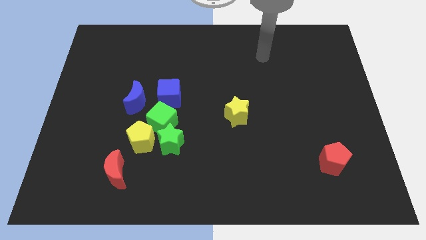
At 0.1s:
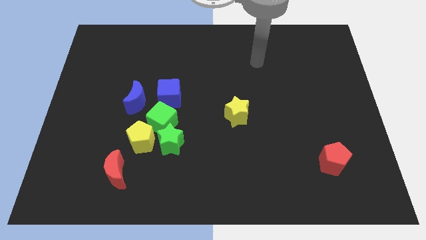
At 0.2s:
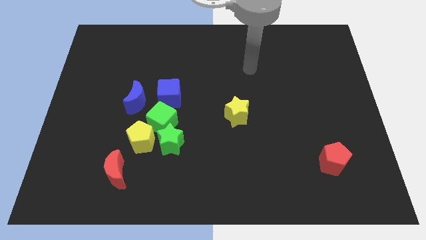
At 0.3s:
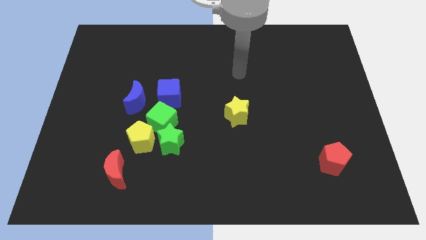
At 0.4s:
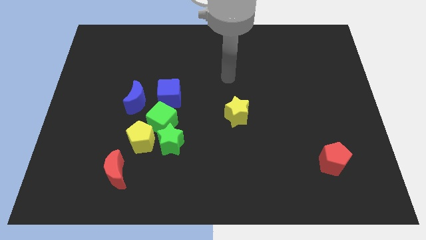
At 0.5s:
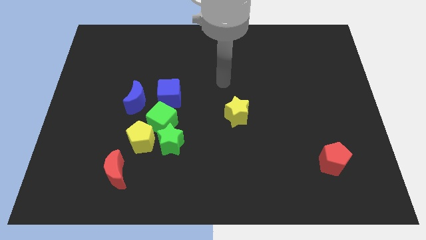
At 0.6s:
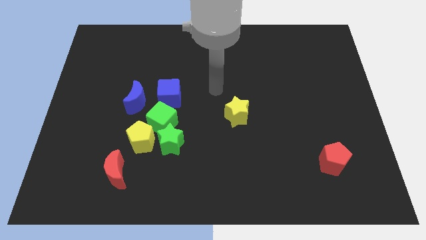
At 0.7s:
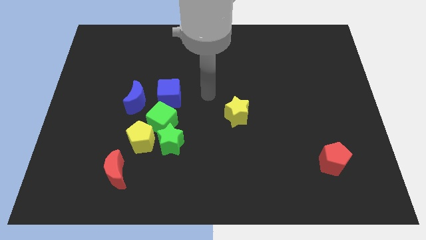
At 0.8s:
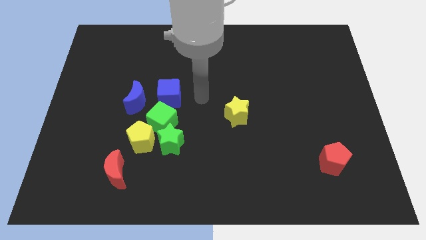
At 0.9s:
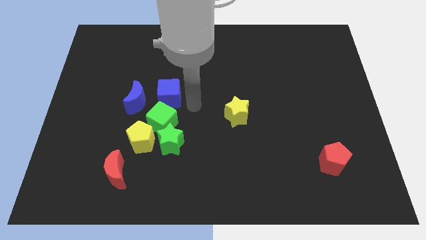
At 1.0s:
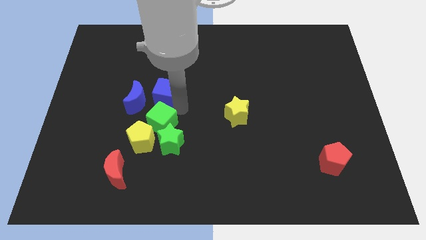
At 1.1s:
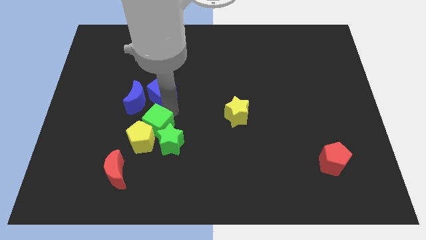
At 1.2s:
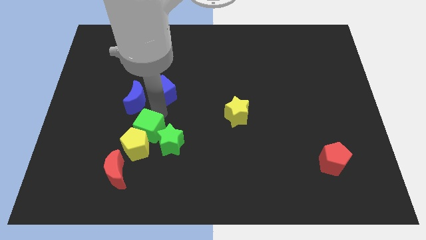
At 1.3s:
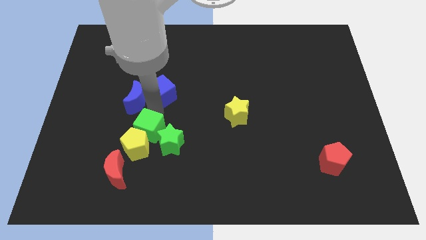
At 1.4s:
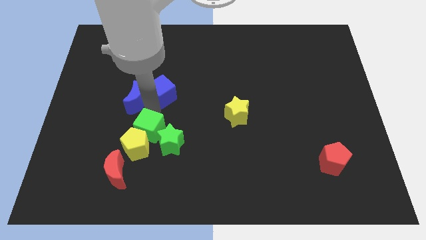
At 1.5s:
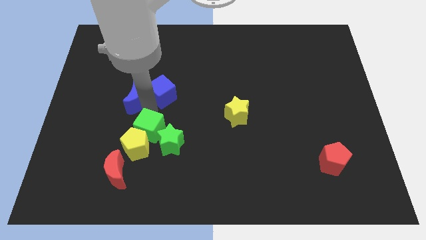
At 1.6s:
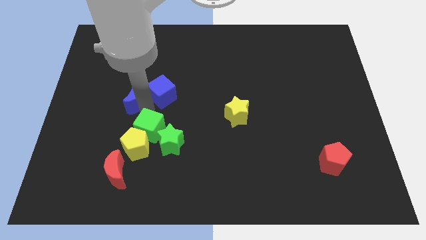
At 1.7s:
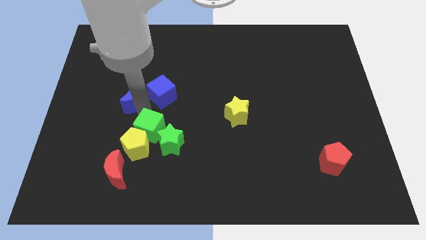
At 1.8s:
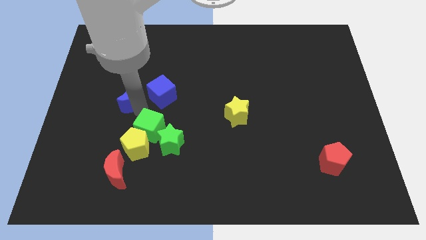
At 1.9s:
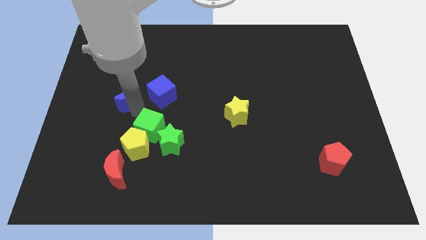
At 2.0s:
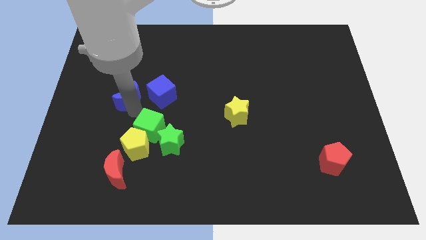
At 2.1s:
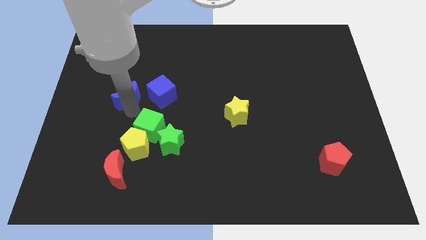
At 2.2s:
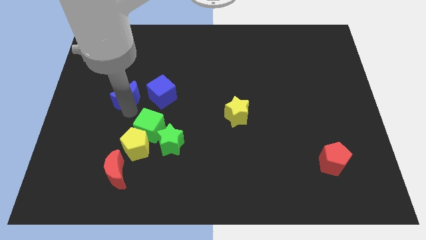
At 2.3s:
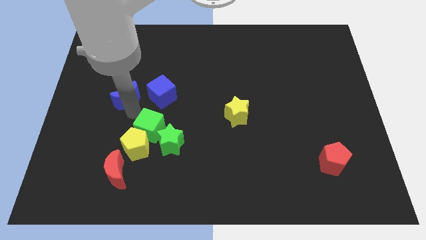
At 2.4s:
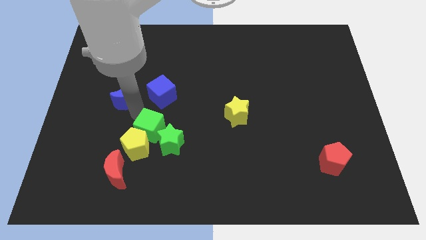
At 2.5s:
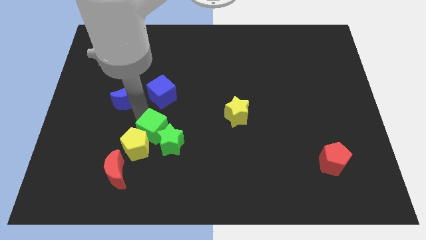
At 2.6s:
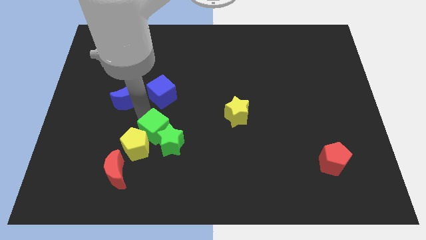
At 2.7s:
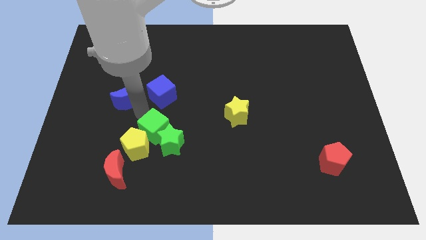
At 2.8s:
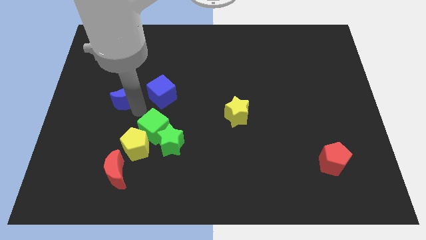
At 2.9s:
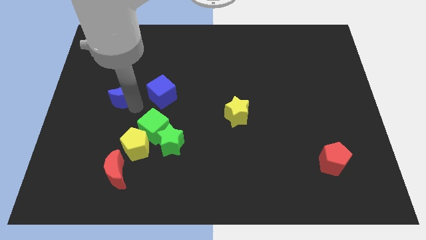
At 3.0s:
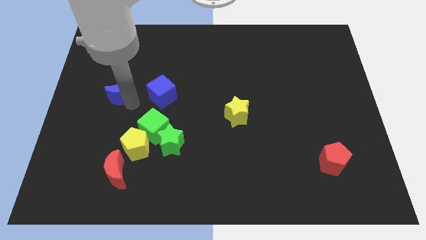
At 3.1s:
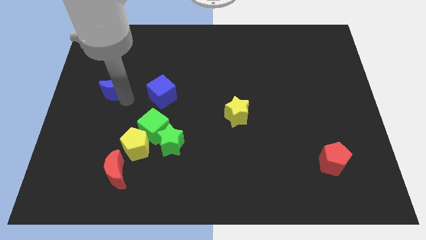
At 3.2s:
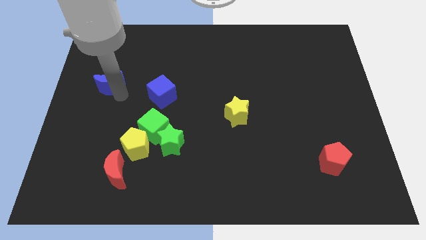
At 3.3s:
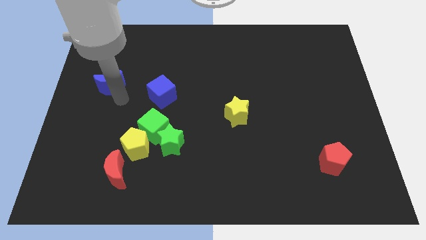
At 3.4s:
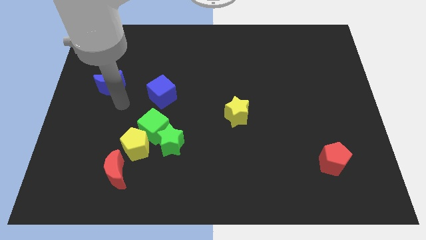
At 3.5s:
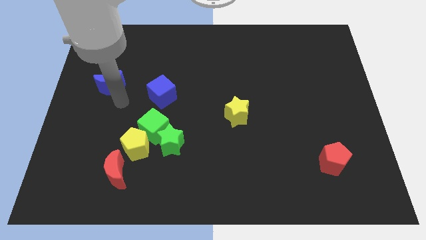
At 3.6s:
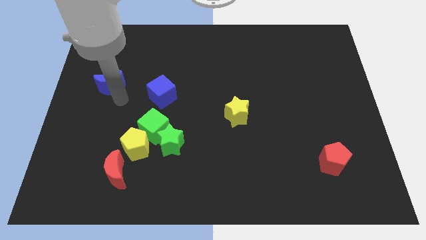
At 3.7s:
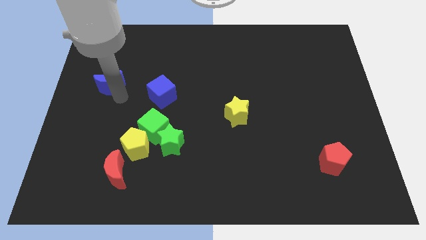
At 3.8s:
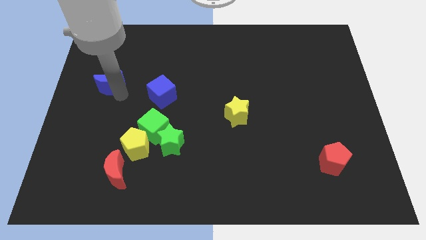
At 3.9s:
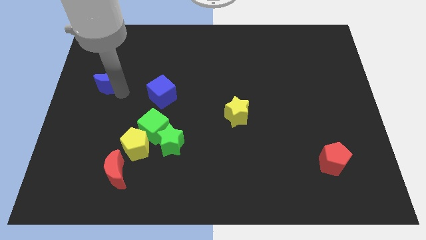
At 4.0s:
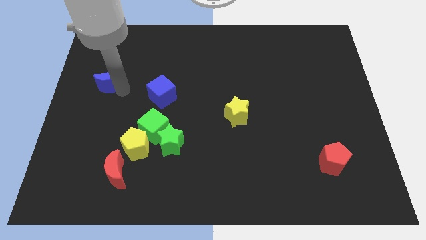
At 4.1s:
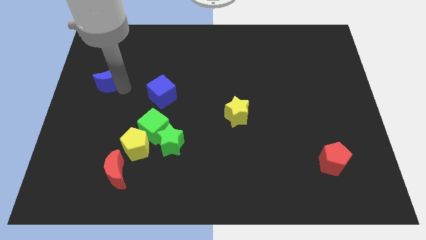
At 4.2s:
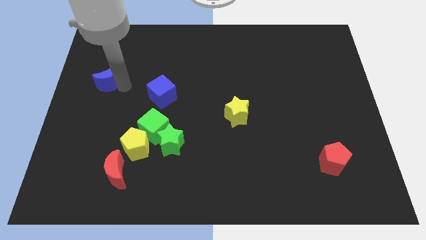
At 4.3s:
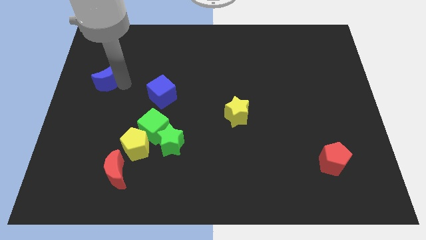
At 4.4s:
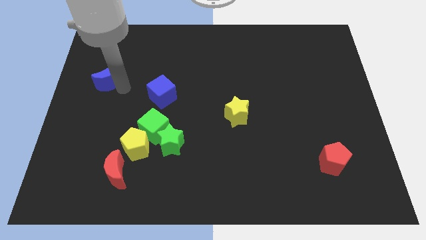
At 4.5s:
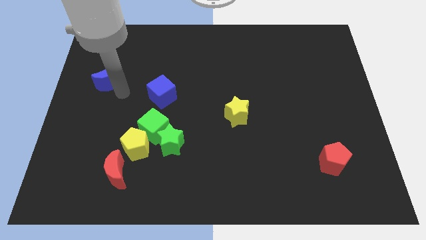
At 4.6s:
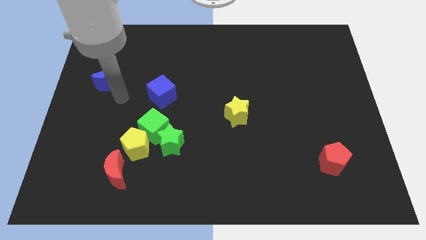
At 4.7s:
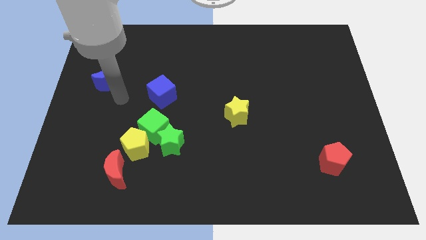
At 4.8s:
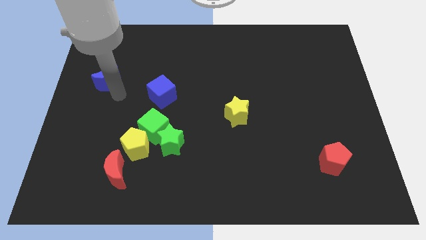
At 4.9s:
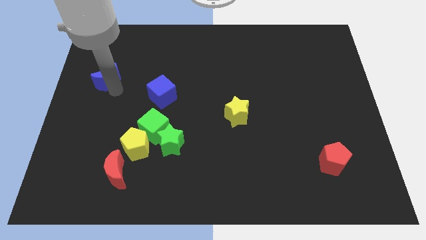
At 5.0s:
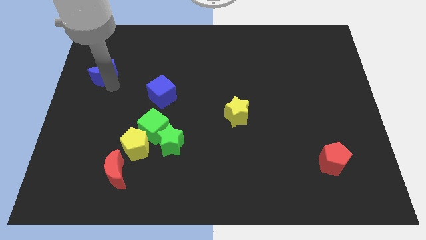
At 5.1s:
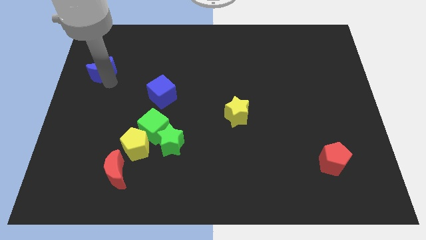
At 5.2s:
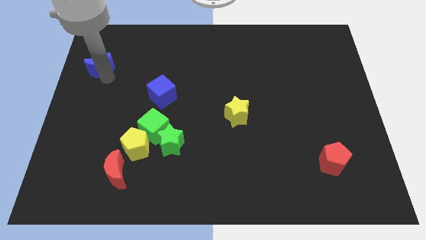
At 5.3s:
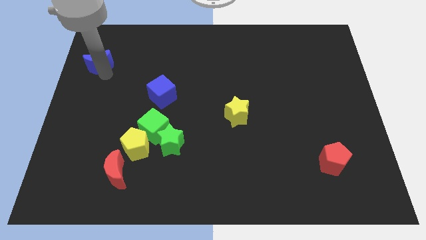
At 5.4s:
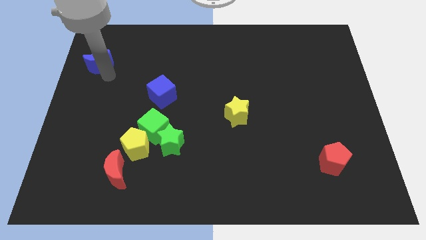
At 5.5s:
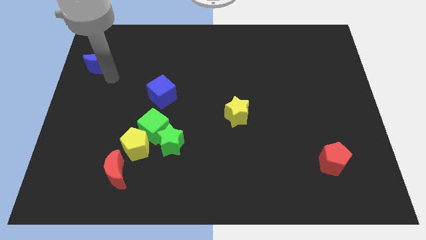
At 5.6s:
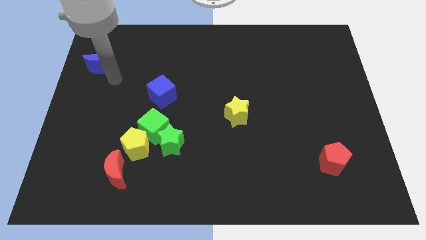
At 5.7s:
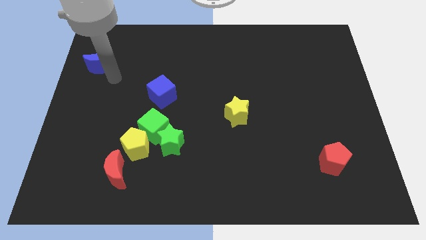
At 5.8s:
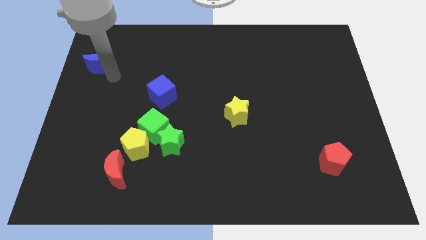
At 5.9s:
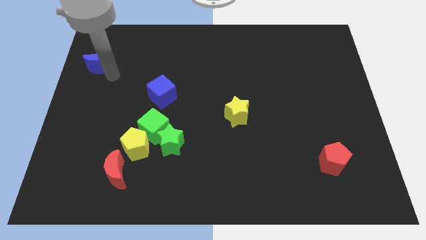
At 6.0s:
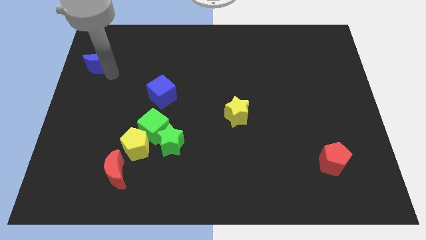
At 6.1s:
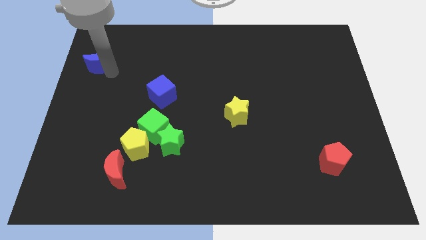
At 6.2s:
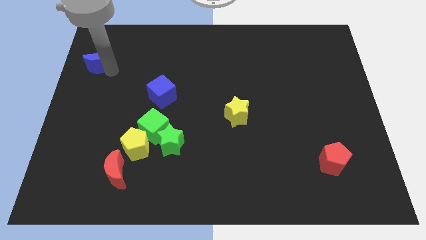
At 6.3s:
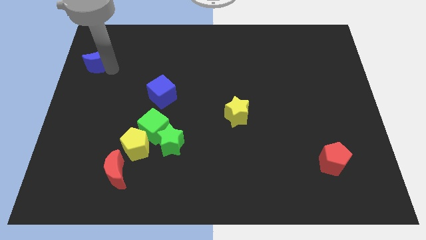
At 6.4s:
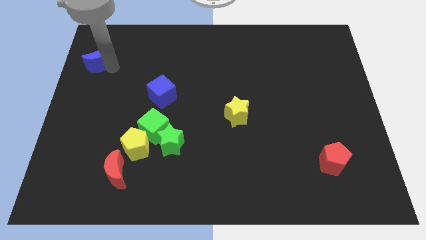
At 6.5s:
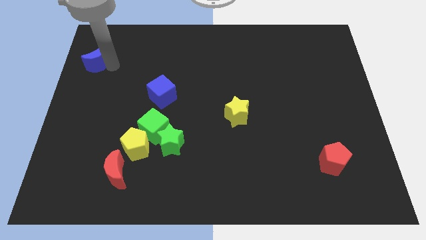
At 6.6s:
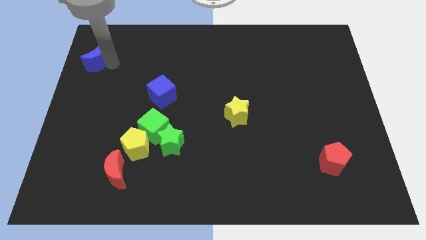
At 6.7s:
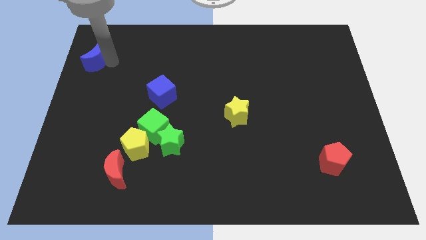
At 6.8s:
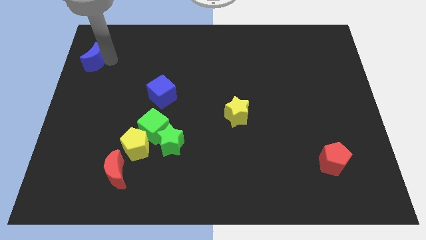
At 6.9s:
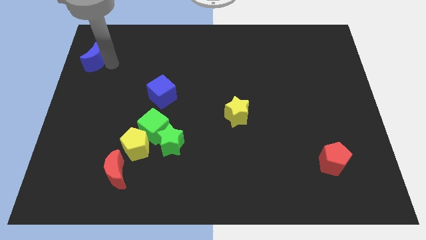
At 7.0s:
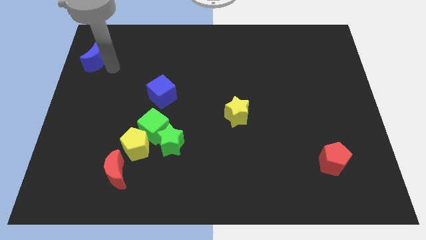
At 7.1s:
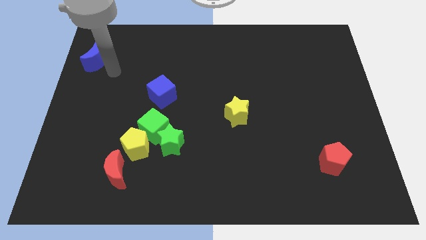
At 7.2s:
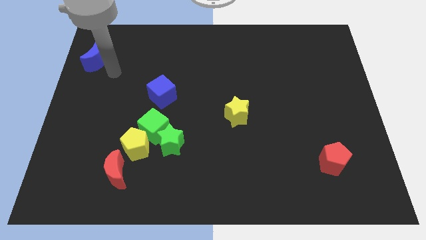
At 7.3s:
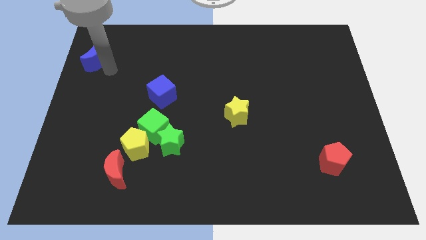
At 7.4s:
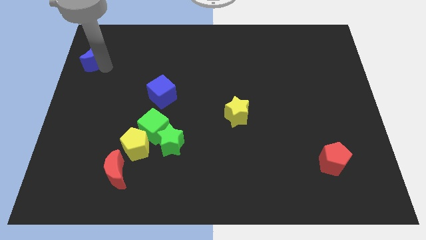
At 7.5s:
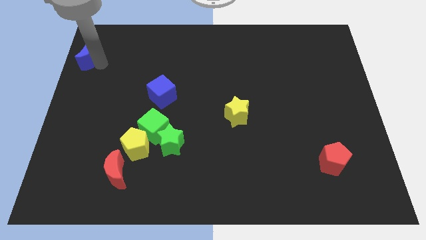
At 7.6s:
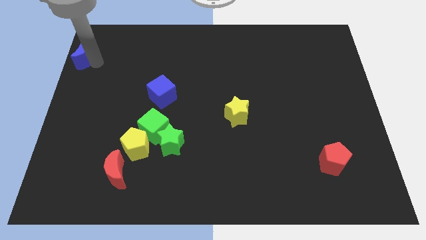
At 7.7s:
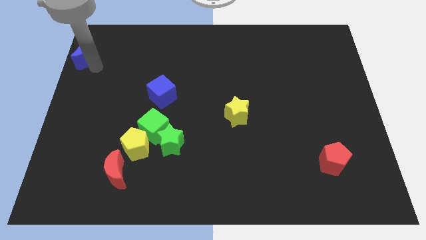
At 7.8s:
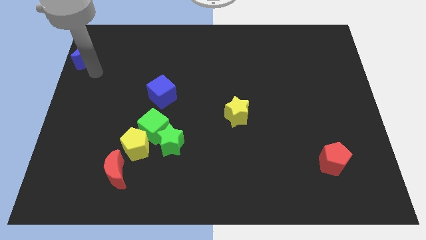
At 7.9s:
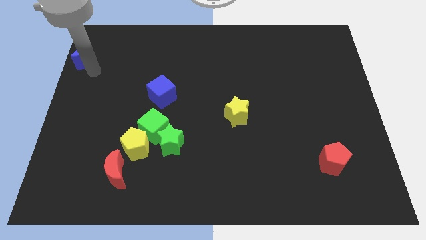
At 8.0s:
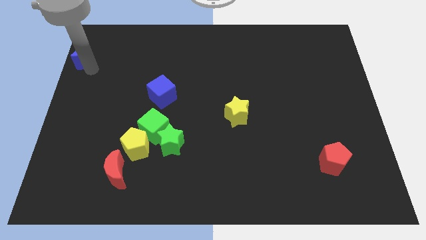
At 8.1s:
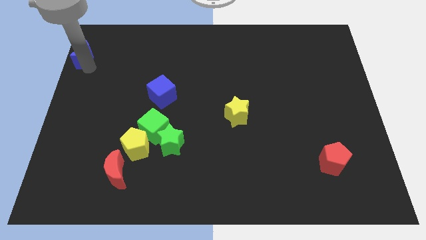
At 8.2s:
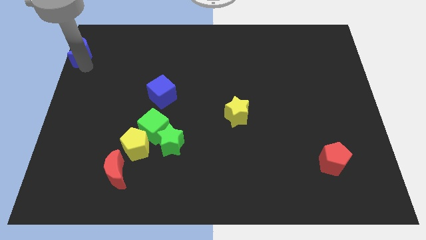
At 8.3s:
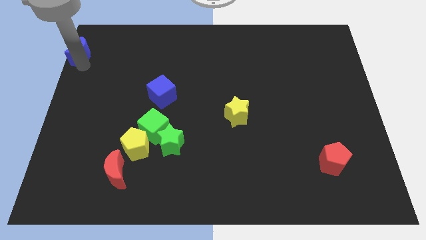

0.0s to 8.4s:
slide the blue moon to the top left
